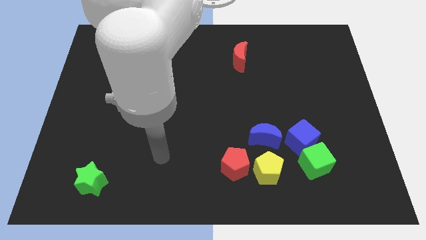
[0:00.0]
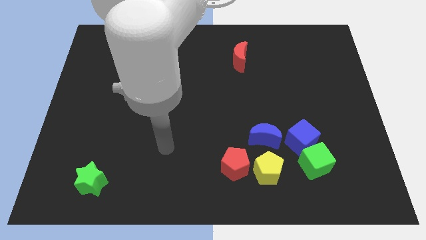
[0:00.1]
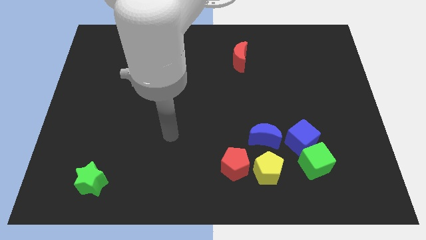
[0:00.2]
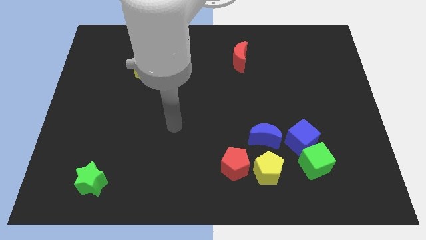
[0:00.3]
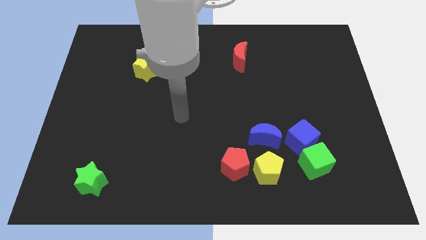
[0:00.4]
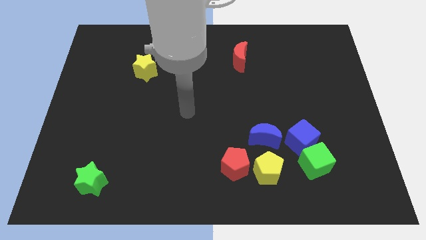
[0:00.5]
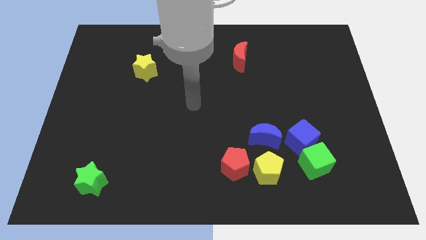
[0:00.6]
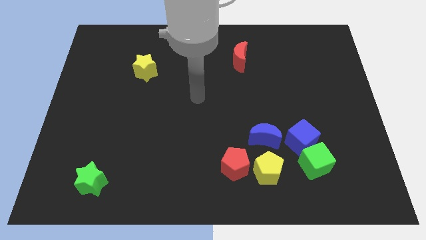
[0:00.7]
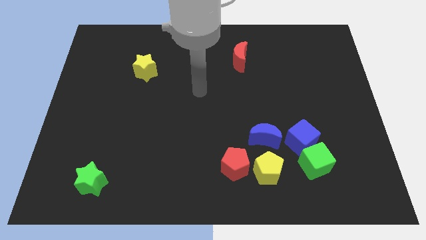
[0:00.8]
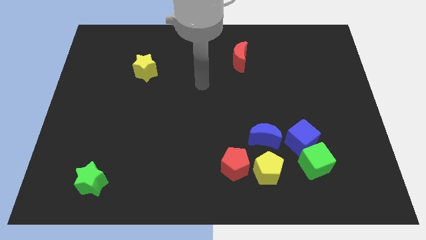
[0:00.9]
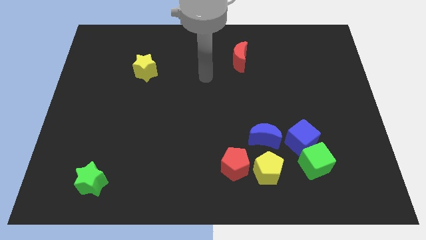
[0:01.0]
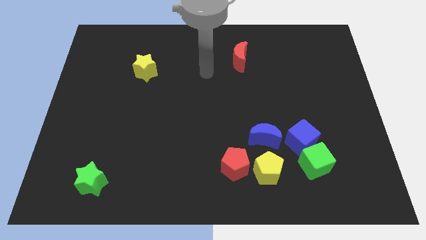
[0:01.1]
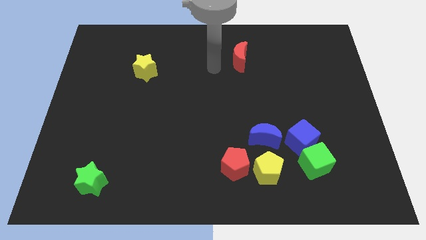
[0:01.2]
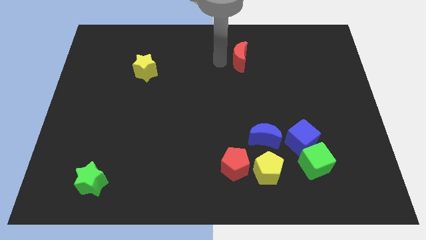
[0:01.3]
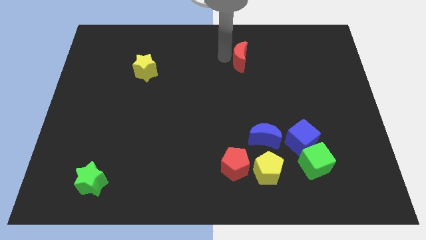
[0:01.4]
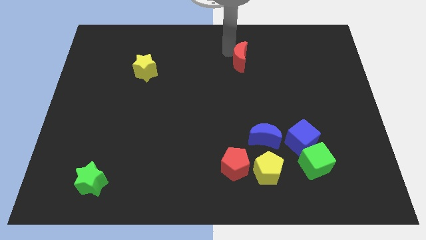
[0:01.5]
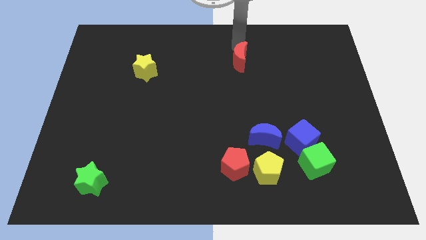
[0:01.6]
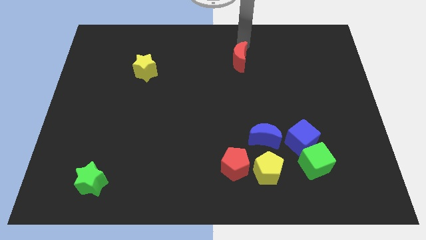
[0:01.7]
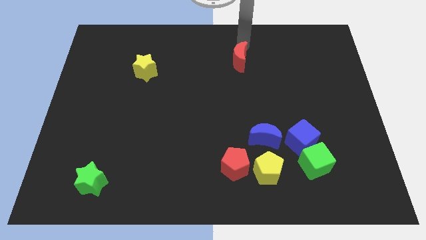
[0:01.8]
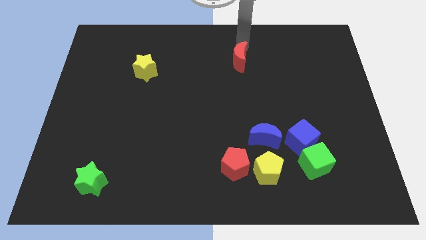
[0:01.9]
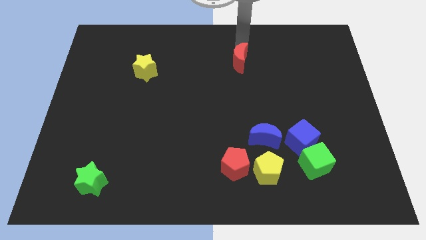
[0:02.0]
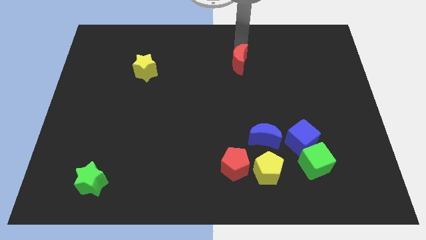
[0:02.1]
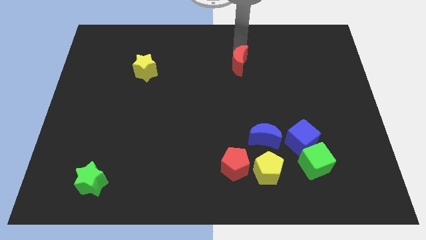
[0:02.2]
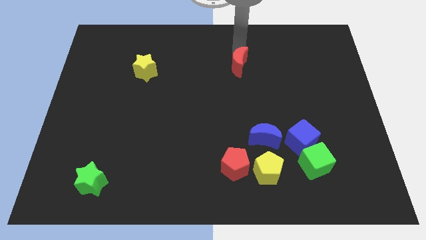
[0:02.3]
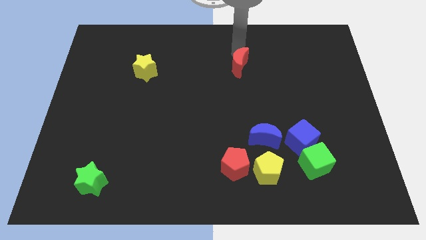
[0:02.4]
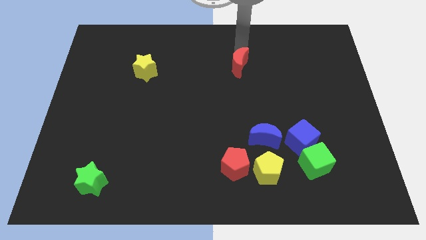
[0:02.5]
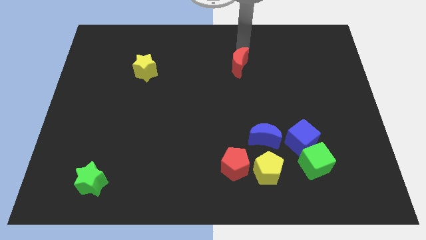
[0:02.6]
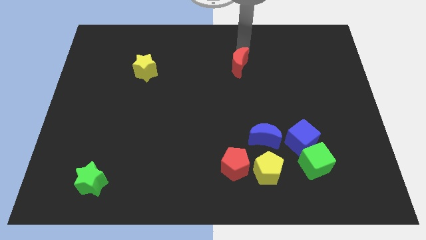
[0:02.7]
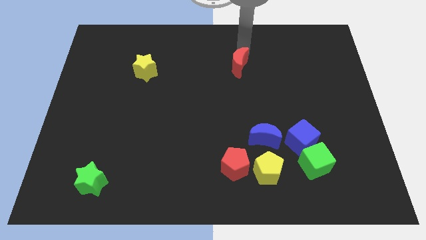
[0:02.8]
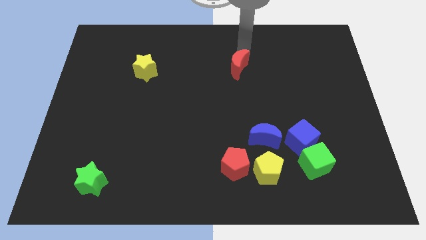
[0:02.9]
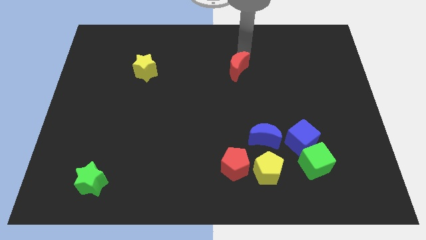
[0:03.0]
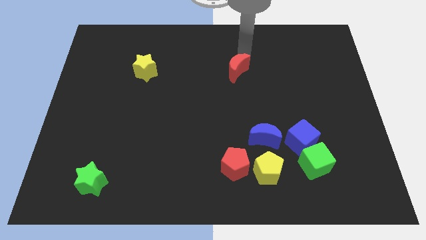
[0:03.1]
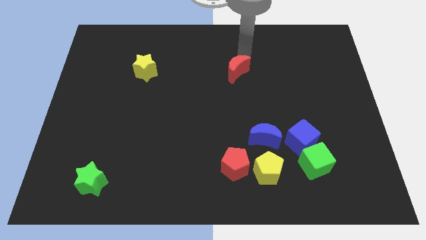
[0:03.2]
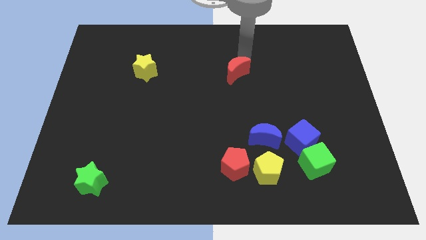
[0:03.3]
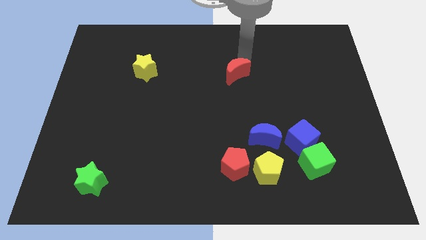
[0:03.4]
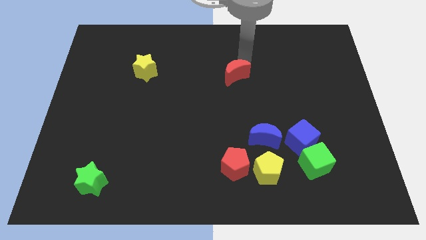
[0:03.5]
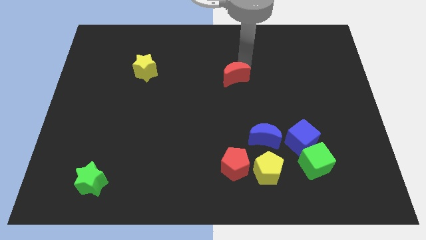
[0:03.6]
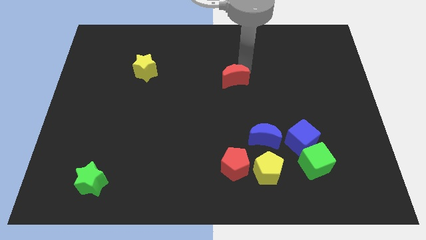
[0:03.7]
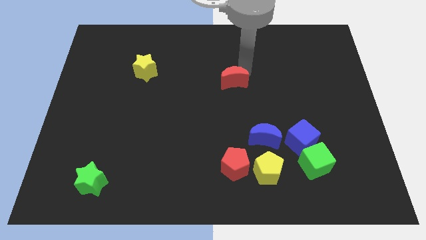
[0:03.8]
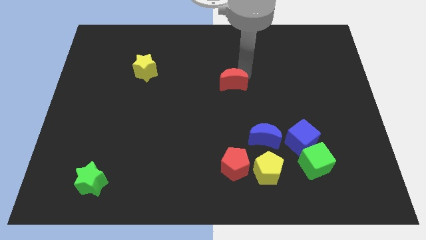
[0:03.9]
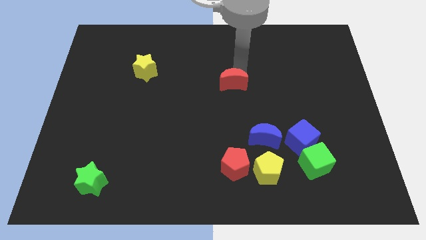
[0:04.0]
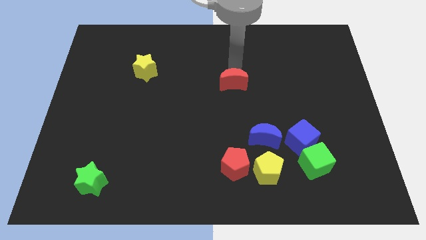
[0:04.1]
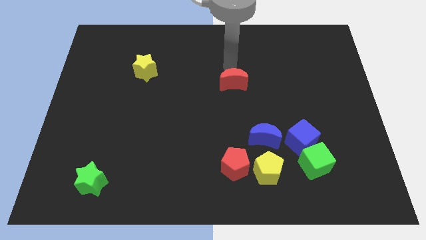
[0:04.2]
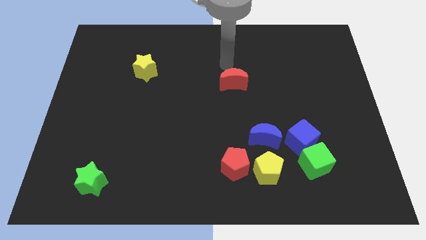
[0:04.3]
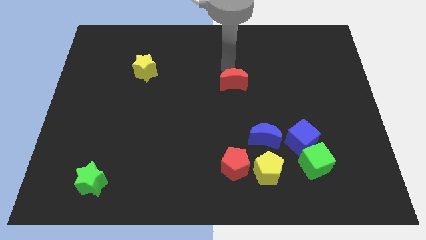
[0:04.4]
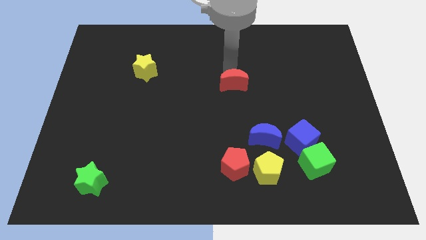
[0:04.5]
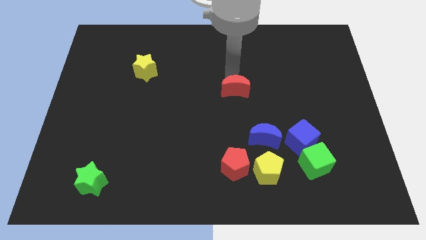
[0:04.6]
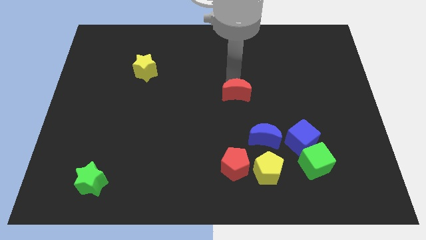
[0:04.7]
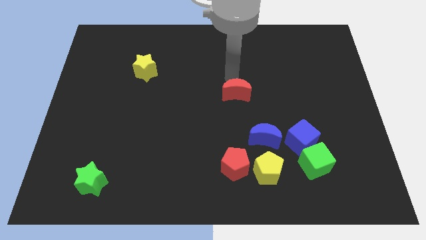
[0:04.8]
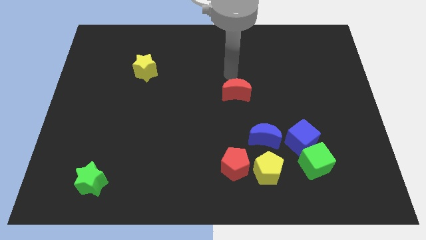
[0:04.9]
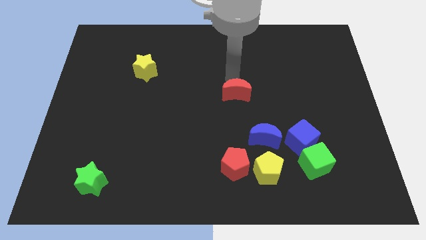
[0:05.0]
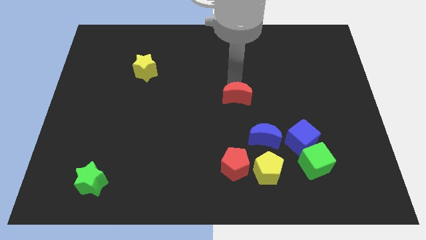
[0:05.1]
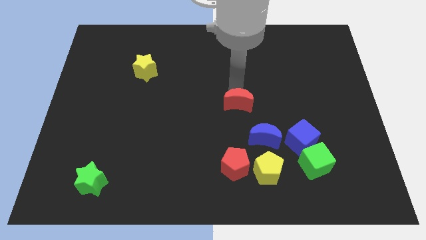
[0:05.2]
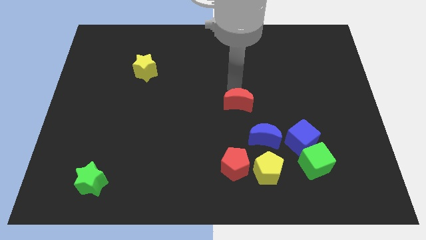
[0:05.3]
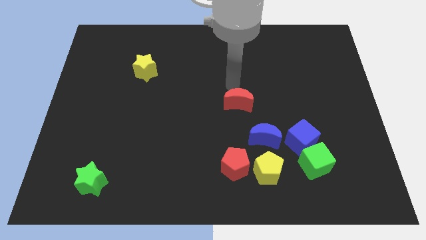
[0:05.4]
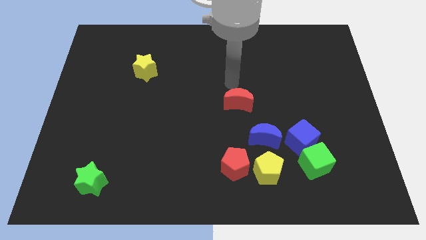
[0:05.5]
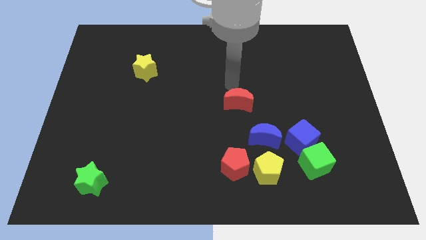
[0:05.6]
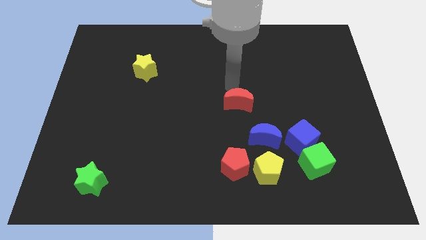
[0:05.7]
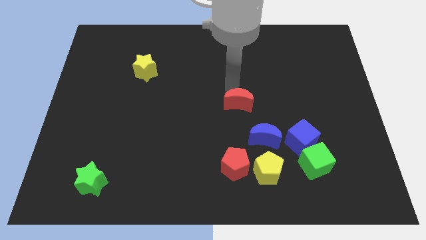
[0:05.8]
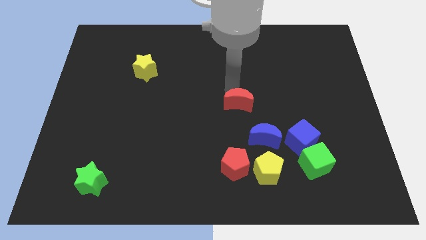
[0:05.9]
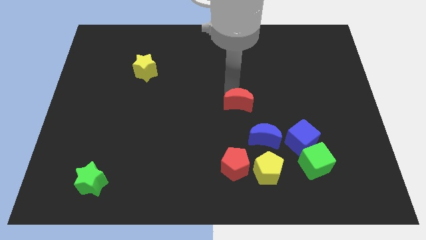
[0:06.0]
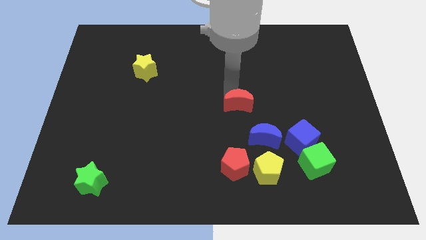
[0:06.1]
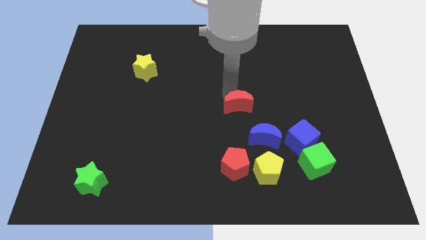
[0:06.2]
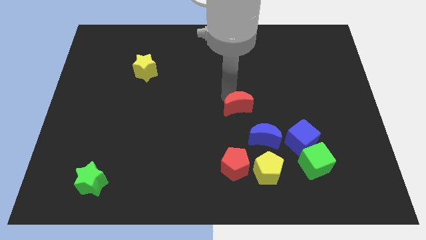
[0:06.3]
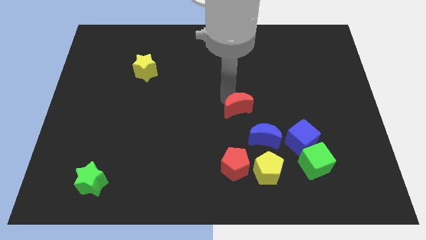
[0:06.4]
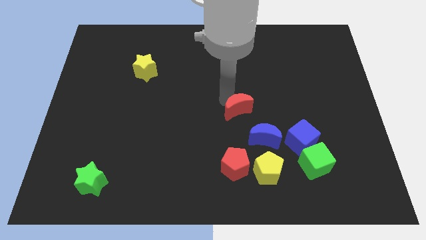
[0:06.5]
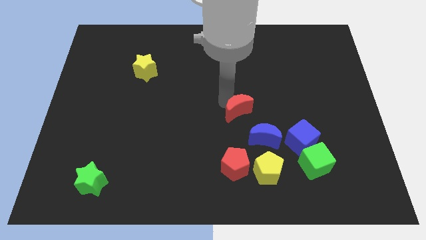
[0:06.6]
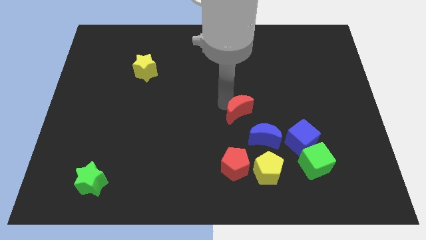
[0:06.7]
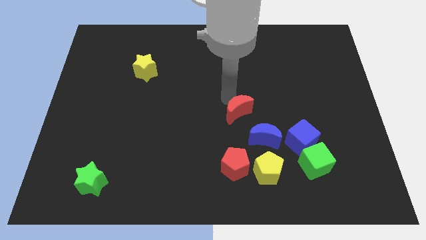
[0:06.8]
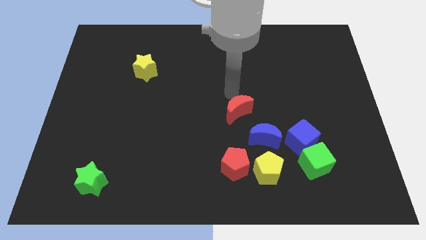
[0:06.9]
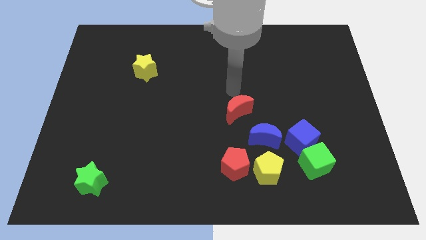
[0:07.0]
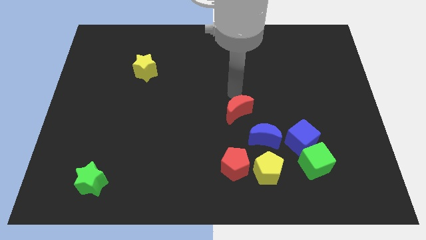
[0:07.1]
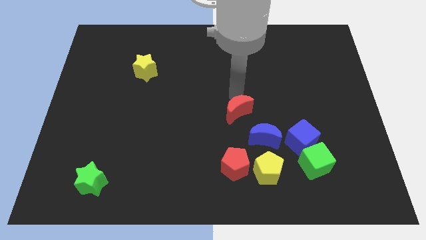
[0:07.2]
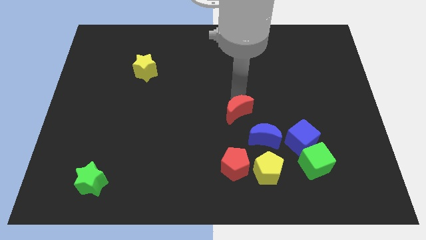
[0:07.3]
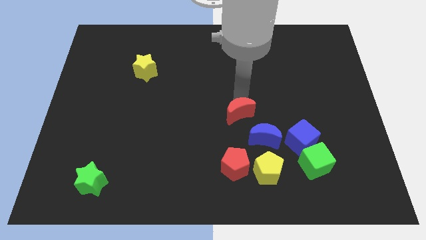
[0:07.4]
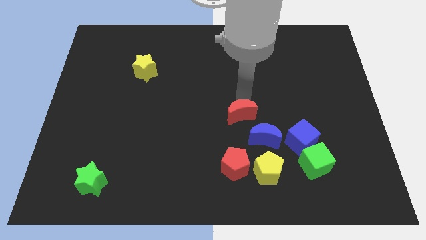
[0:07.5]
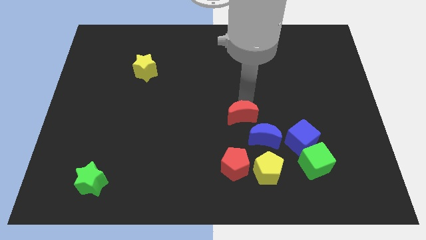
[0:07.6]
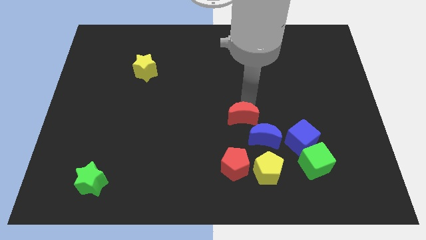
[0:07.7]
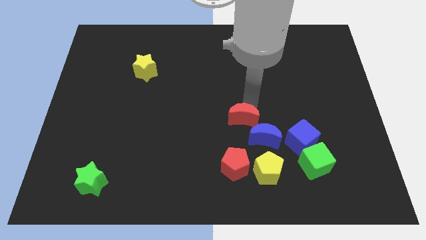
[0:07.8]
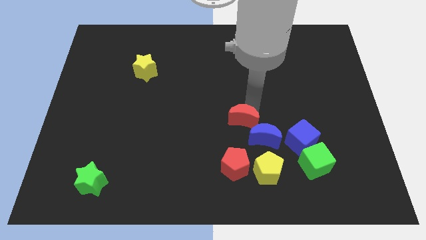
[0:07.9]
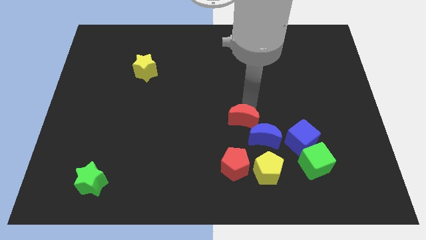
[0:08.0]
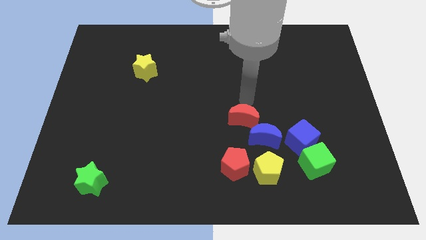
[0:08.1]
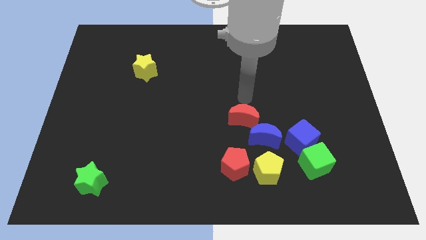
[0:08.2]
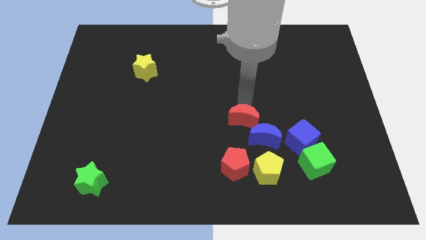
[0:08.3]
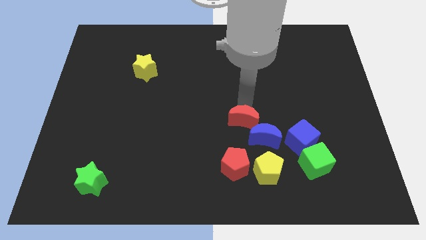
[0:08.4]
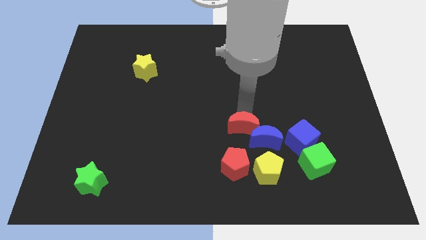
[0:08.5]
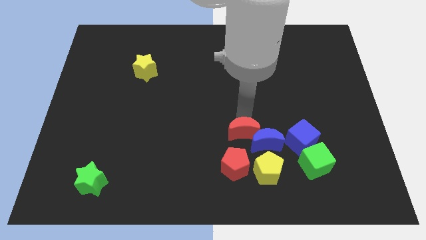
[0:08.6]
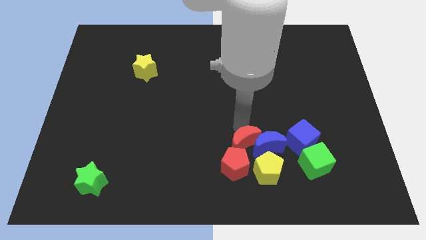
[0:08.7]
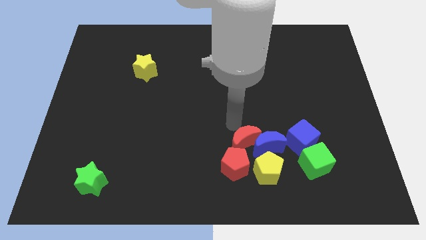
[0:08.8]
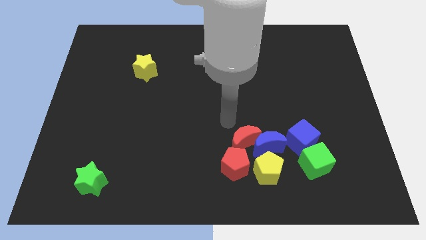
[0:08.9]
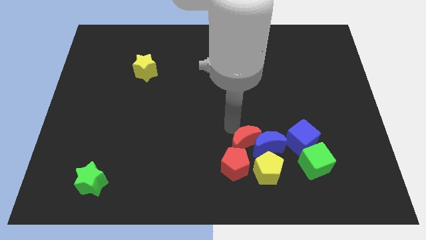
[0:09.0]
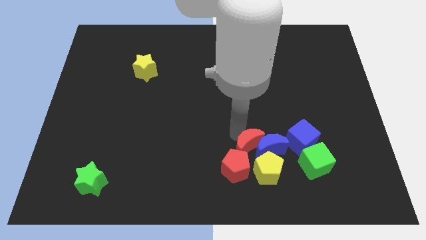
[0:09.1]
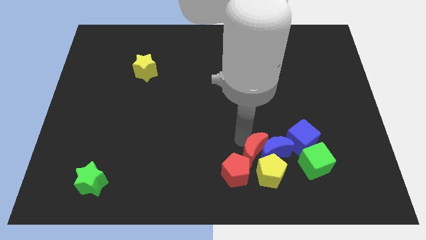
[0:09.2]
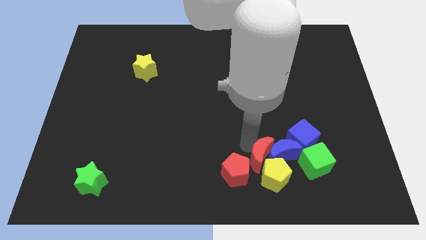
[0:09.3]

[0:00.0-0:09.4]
slide the red moon towards the yellow pentagon
